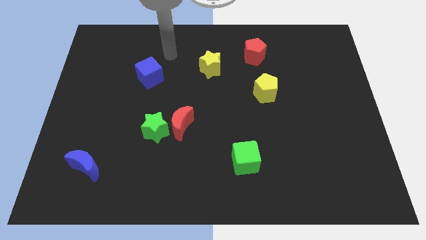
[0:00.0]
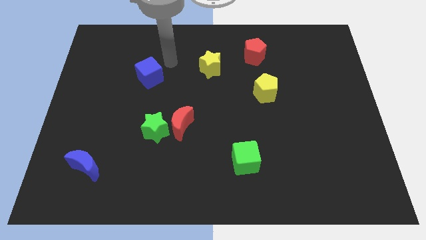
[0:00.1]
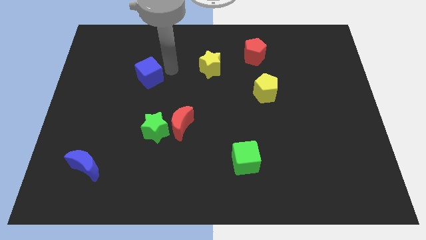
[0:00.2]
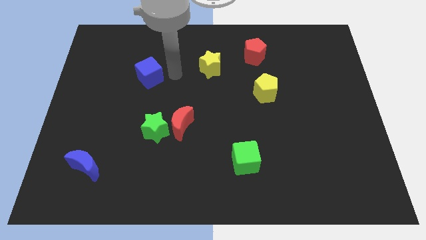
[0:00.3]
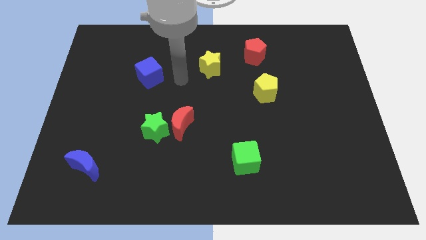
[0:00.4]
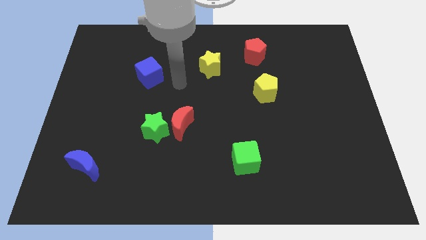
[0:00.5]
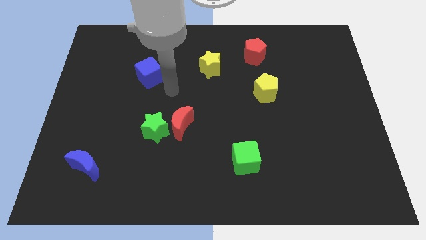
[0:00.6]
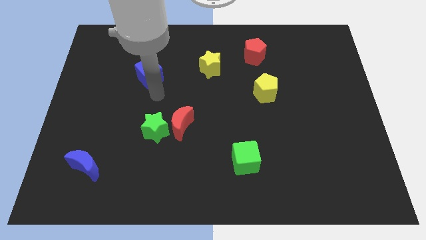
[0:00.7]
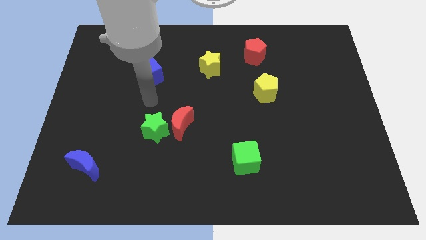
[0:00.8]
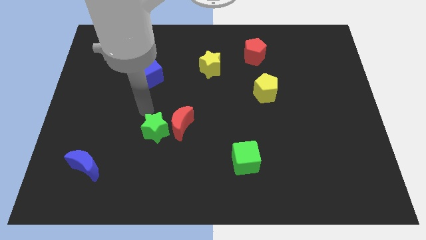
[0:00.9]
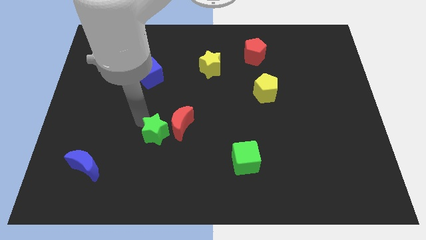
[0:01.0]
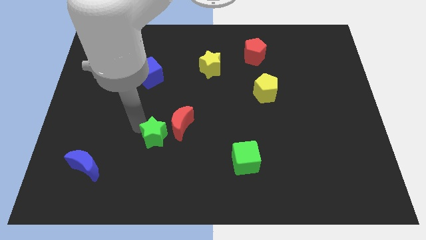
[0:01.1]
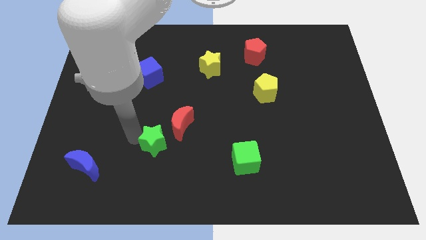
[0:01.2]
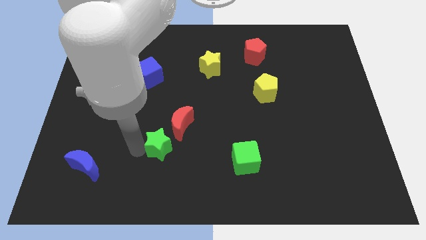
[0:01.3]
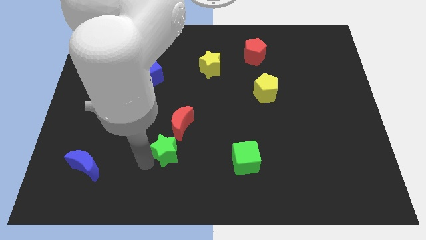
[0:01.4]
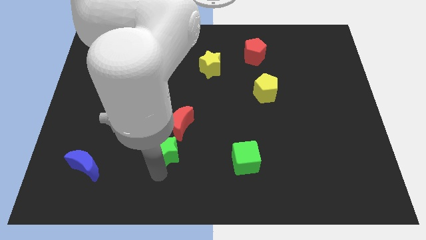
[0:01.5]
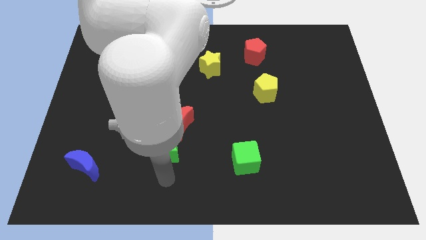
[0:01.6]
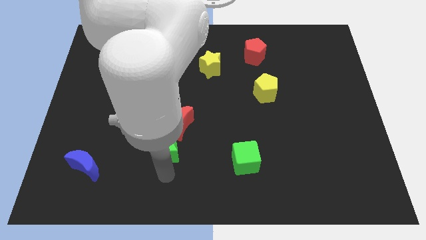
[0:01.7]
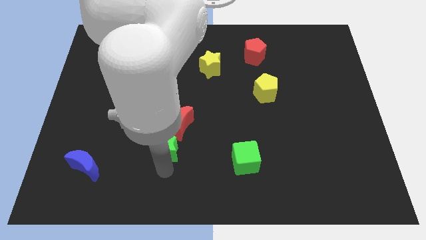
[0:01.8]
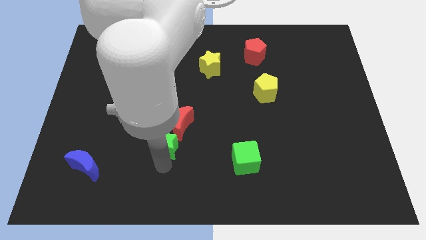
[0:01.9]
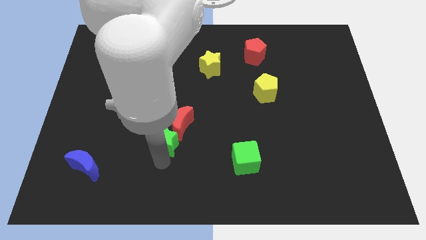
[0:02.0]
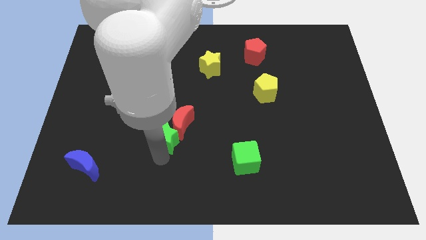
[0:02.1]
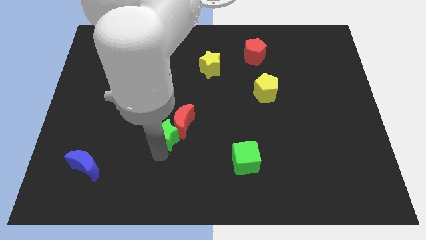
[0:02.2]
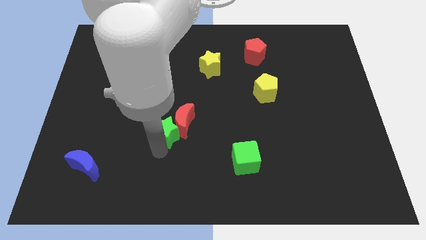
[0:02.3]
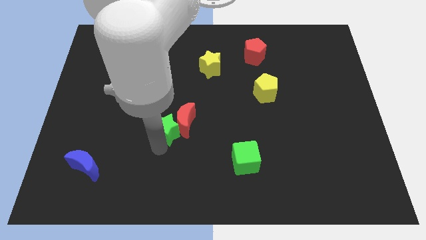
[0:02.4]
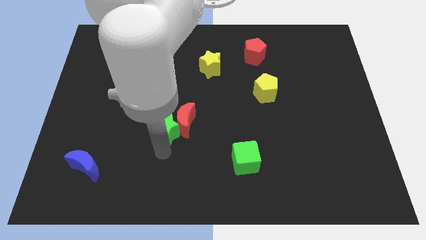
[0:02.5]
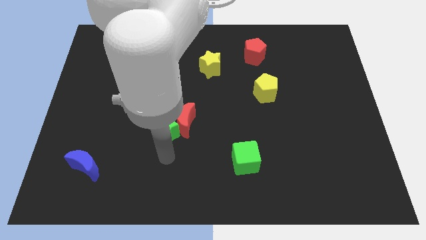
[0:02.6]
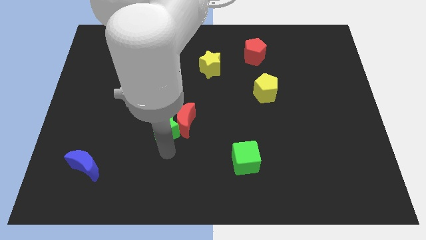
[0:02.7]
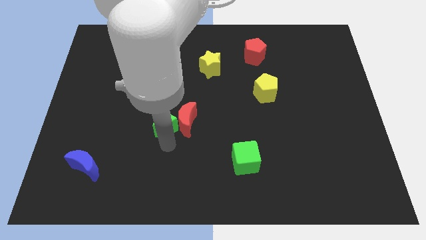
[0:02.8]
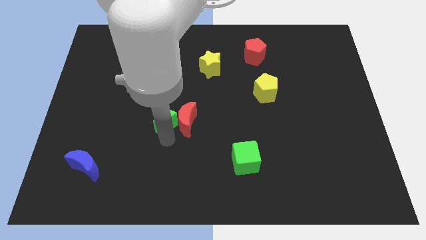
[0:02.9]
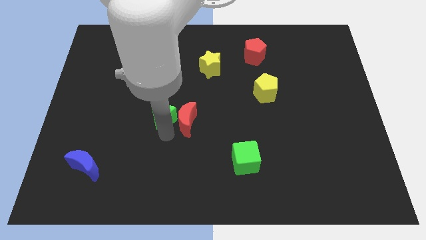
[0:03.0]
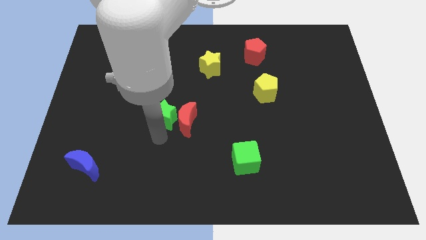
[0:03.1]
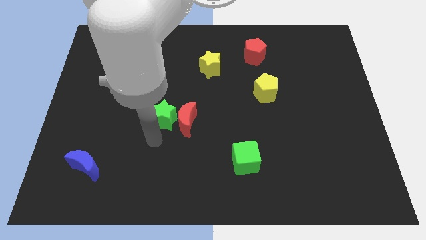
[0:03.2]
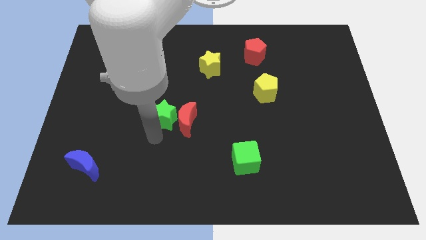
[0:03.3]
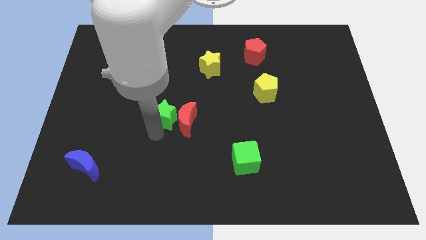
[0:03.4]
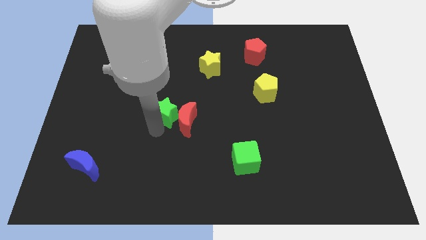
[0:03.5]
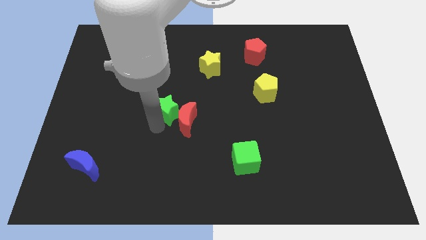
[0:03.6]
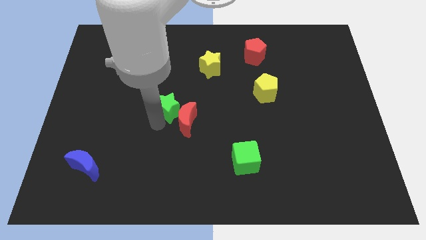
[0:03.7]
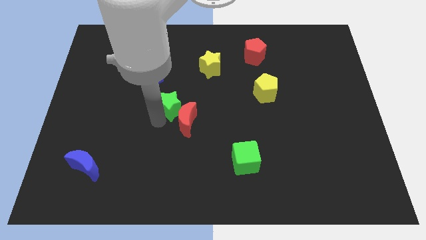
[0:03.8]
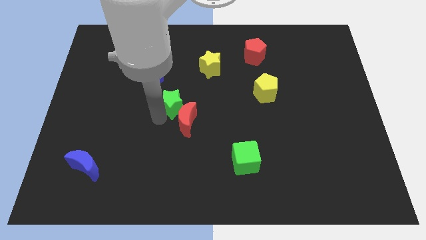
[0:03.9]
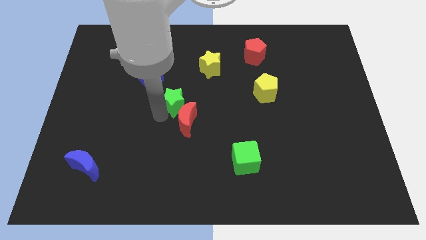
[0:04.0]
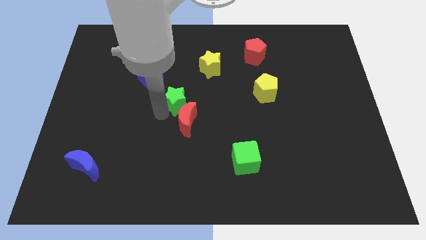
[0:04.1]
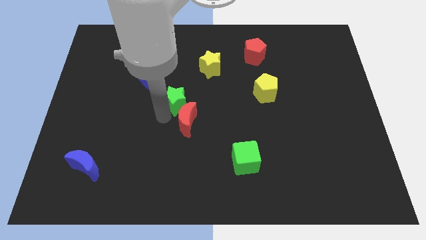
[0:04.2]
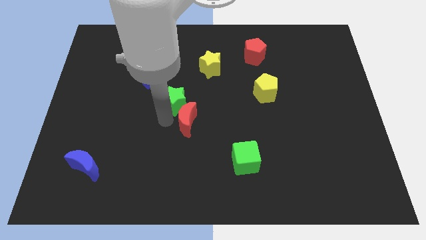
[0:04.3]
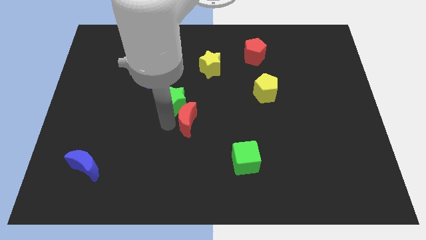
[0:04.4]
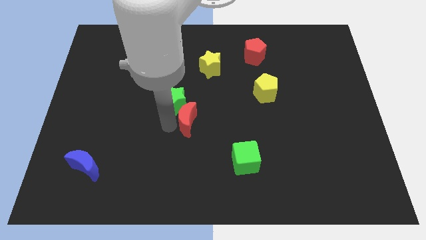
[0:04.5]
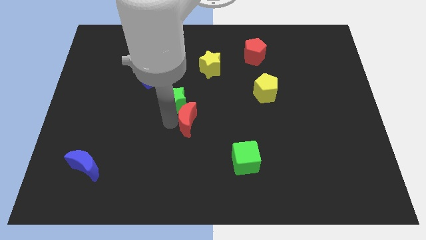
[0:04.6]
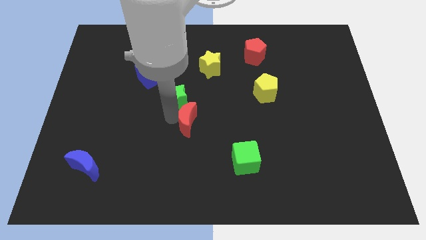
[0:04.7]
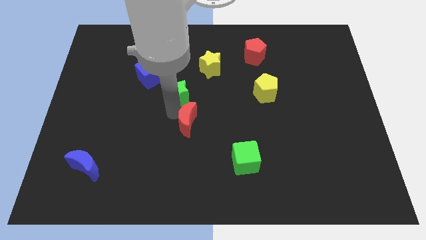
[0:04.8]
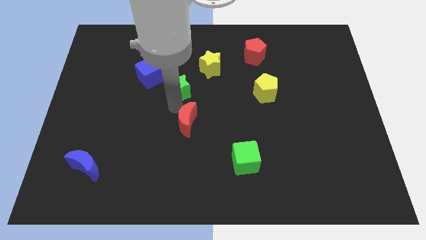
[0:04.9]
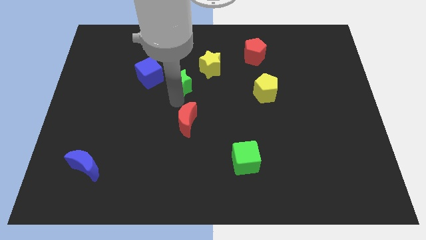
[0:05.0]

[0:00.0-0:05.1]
move the green star to the right side of the blue cube

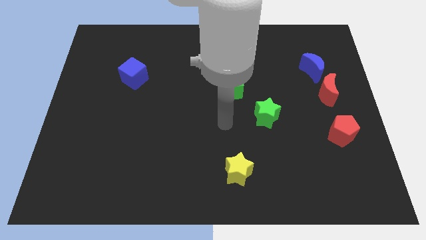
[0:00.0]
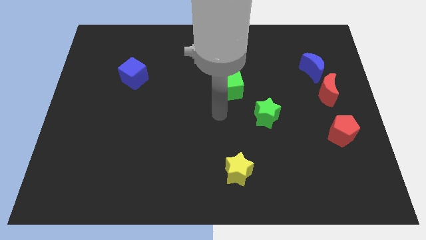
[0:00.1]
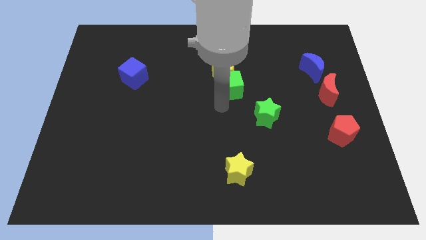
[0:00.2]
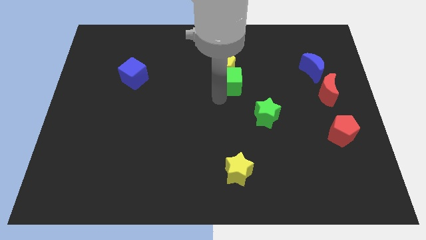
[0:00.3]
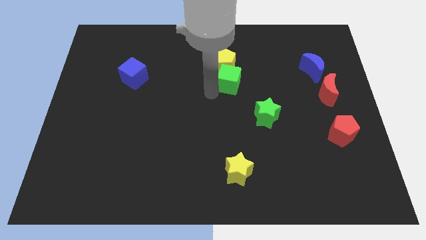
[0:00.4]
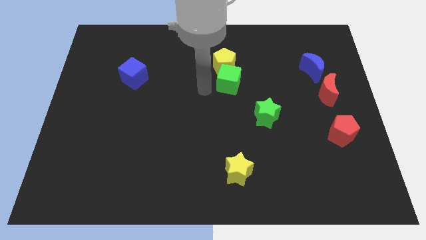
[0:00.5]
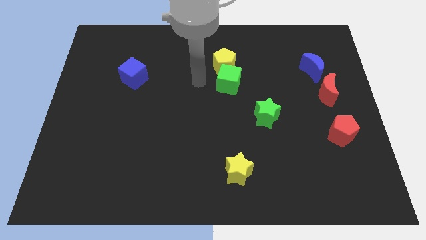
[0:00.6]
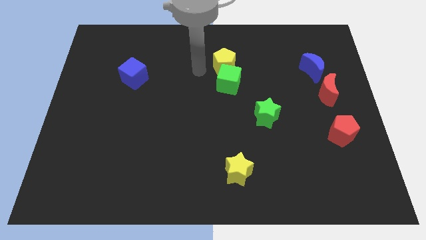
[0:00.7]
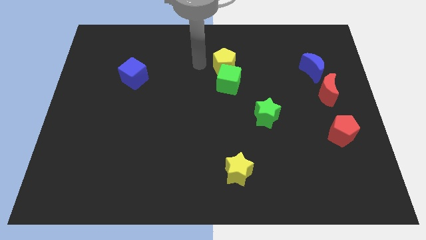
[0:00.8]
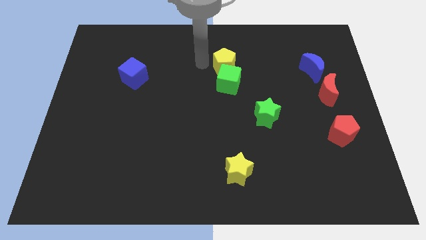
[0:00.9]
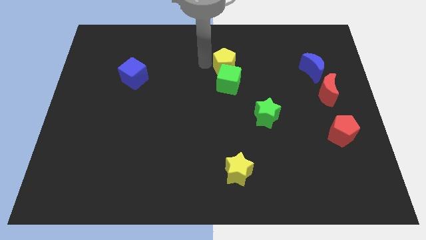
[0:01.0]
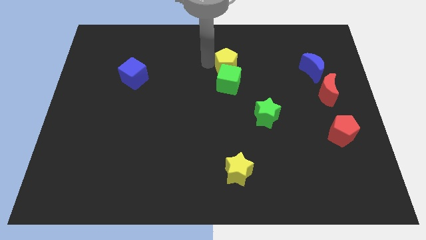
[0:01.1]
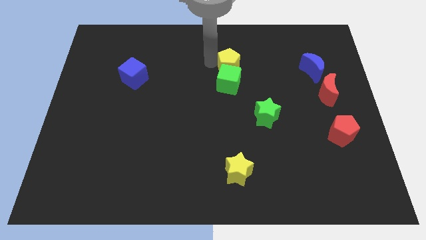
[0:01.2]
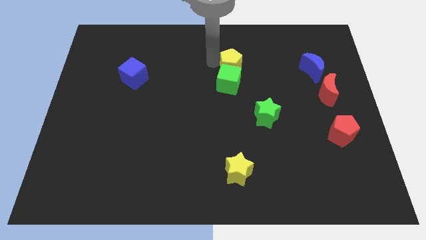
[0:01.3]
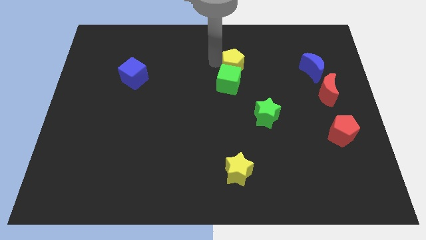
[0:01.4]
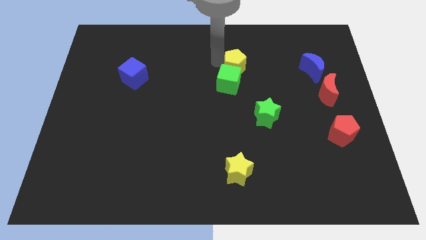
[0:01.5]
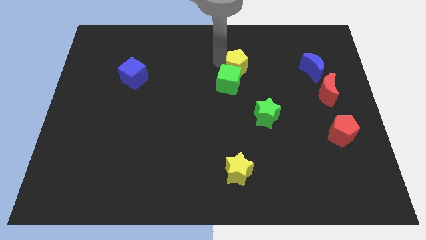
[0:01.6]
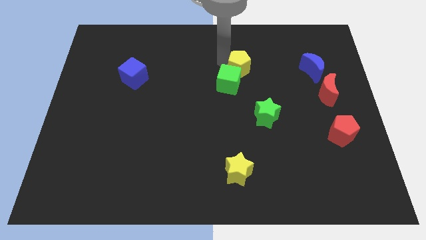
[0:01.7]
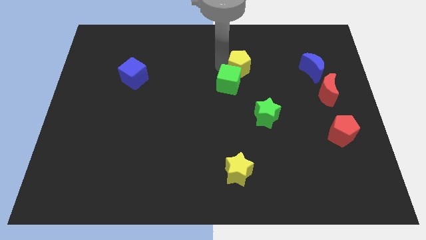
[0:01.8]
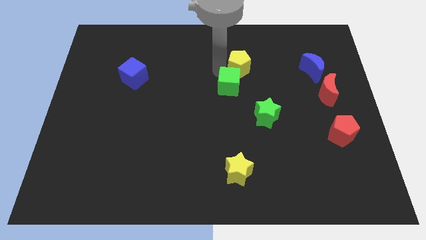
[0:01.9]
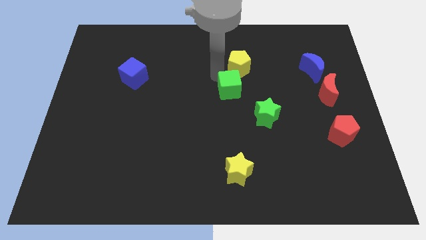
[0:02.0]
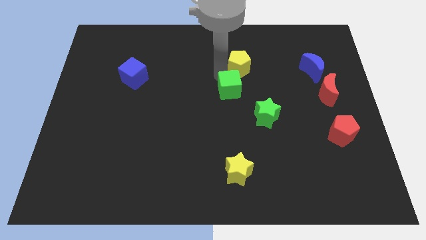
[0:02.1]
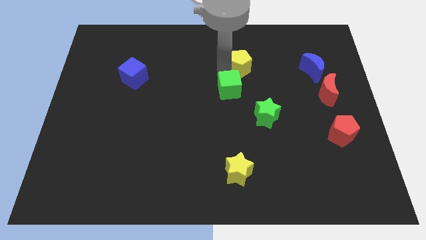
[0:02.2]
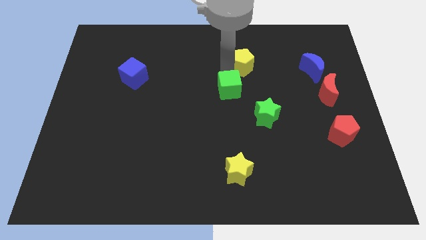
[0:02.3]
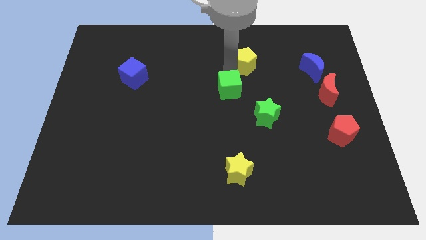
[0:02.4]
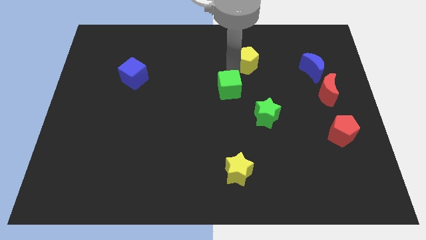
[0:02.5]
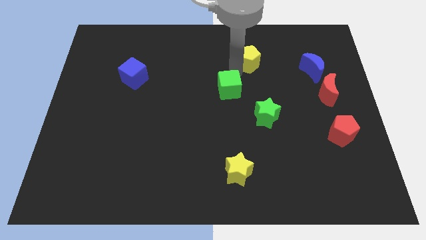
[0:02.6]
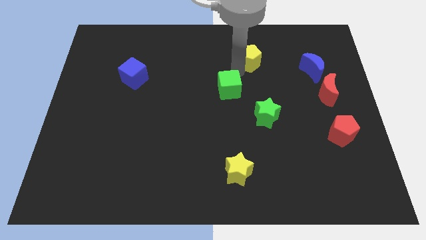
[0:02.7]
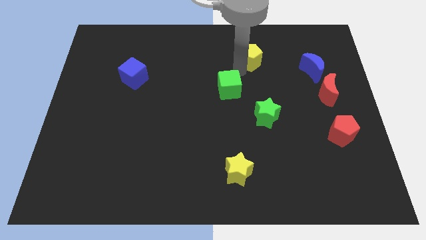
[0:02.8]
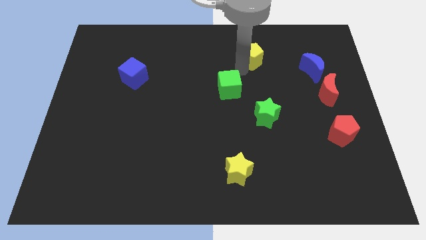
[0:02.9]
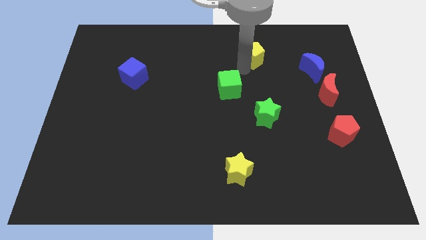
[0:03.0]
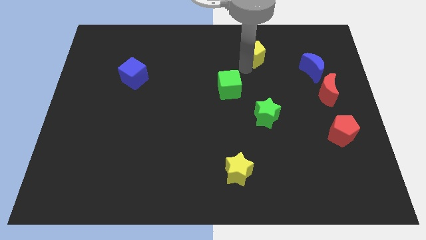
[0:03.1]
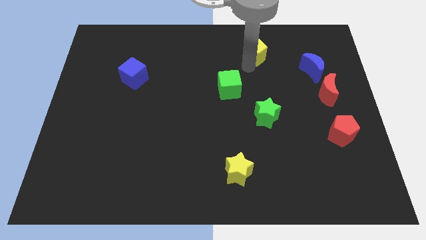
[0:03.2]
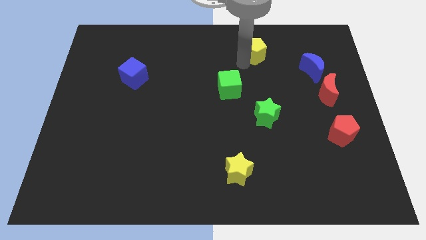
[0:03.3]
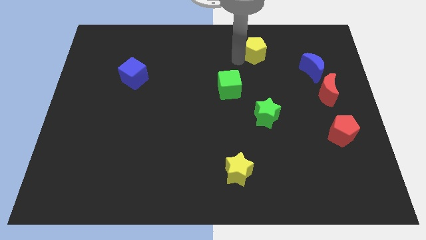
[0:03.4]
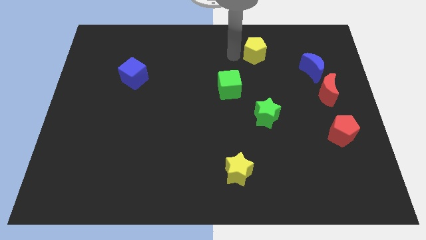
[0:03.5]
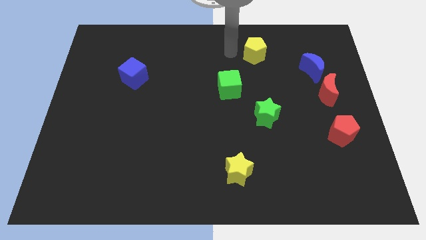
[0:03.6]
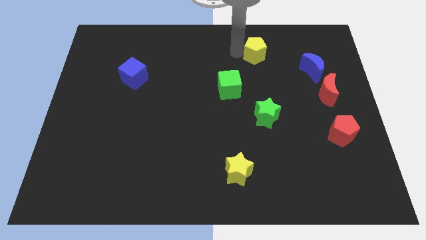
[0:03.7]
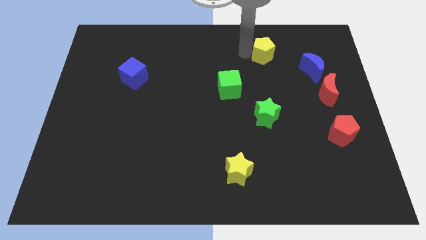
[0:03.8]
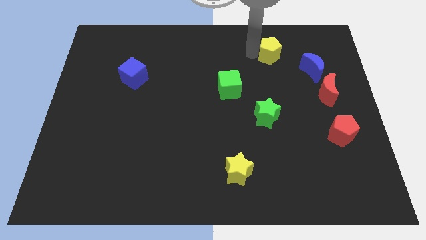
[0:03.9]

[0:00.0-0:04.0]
put the yellow pentagon to the top left side of the blue moon
